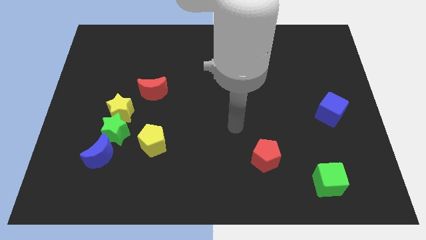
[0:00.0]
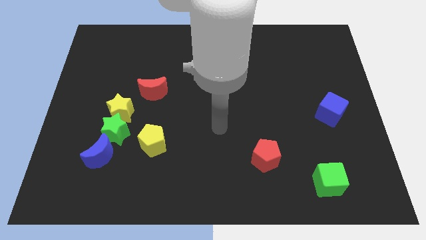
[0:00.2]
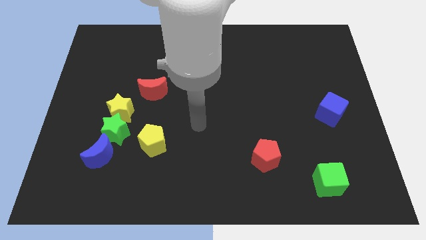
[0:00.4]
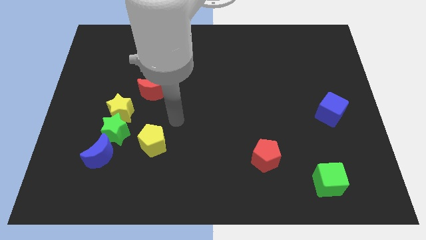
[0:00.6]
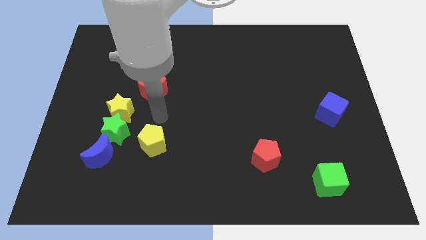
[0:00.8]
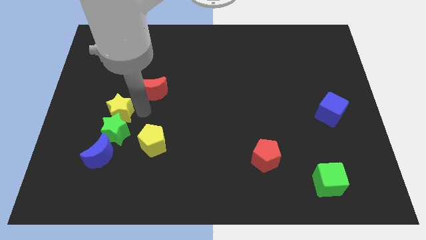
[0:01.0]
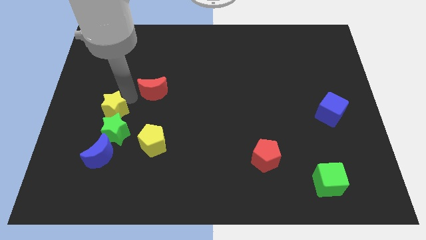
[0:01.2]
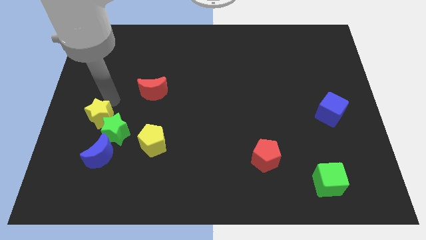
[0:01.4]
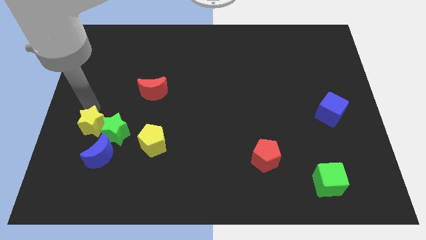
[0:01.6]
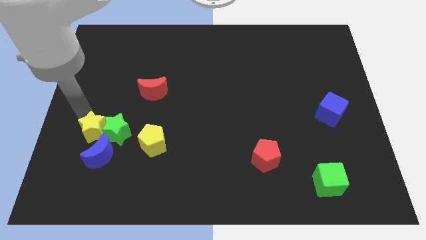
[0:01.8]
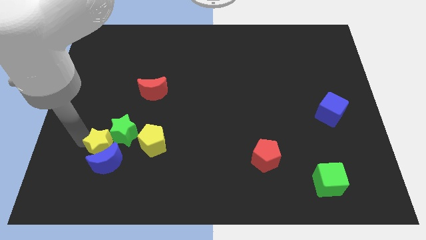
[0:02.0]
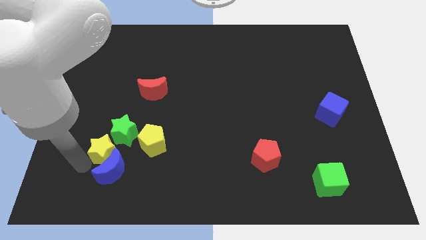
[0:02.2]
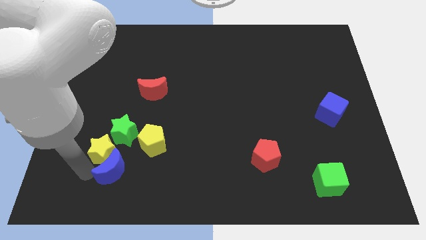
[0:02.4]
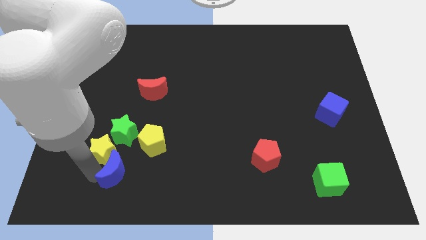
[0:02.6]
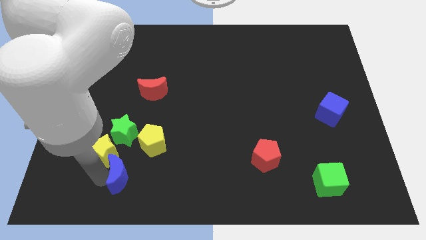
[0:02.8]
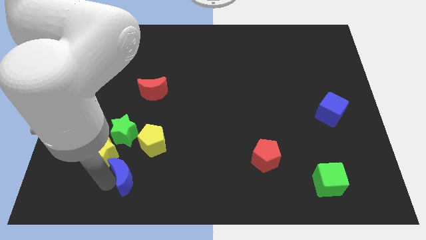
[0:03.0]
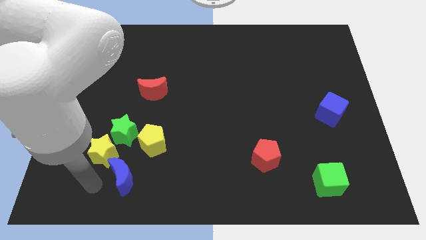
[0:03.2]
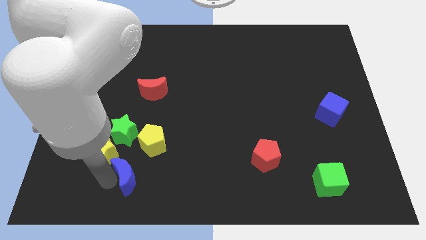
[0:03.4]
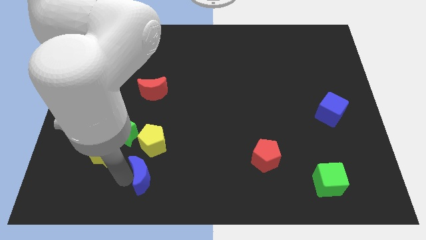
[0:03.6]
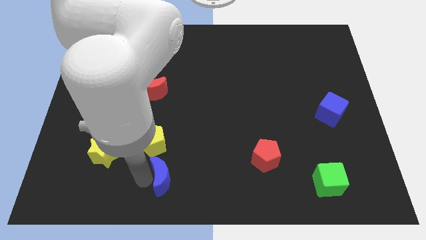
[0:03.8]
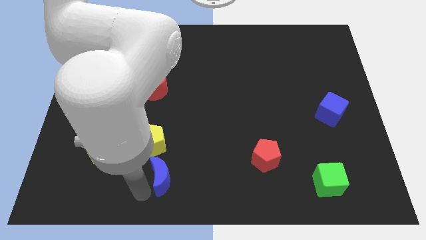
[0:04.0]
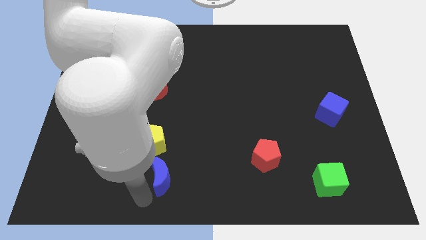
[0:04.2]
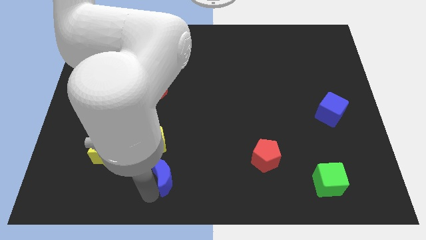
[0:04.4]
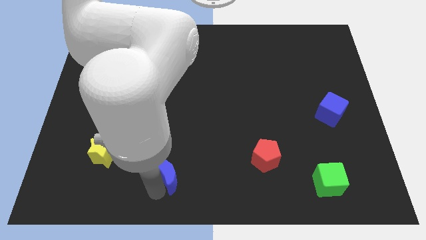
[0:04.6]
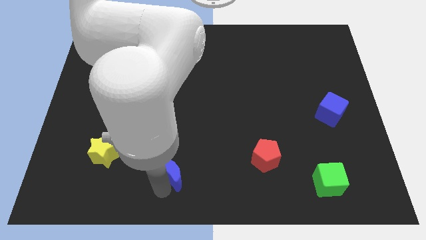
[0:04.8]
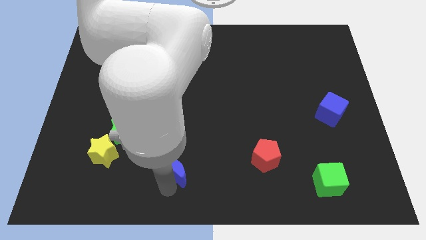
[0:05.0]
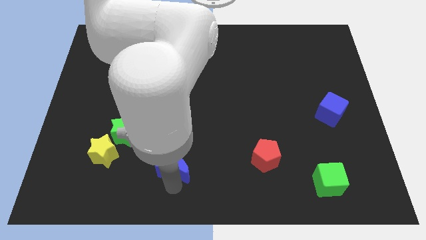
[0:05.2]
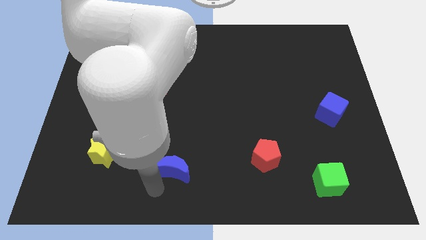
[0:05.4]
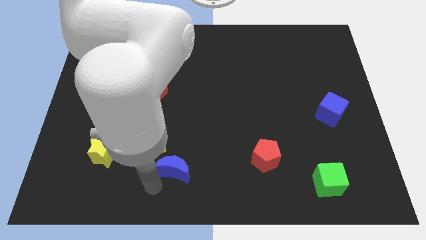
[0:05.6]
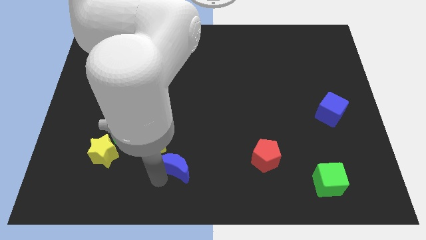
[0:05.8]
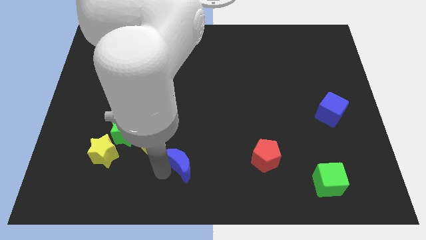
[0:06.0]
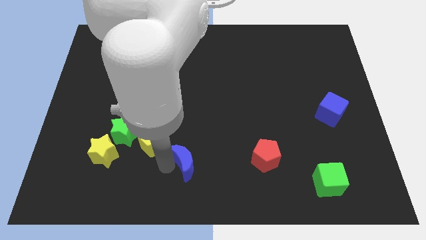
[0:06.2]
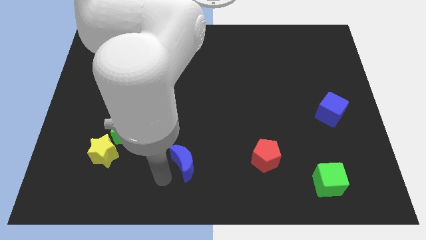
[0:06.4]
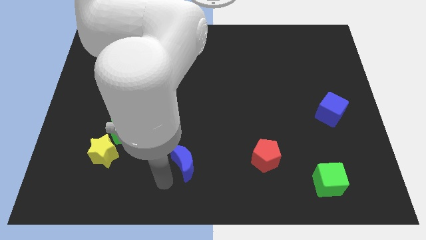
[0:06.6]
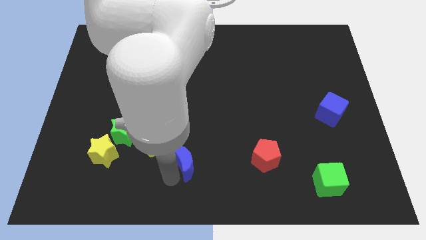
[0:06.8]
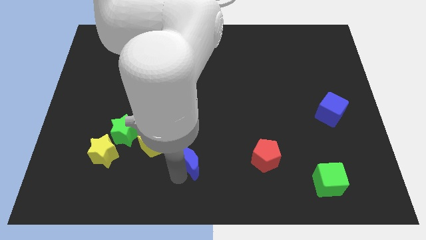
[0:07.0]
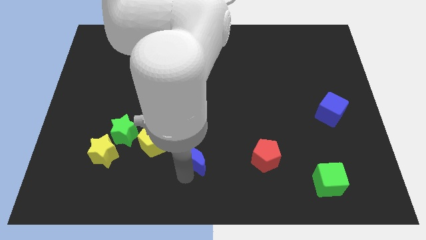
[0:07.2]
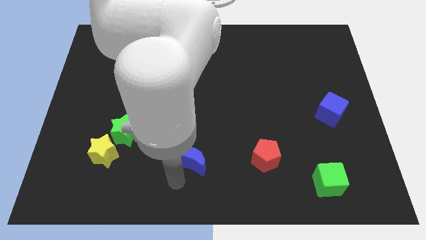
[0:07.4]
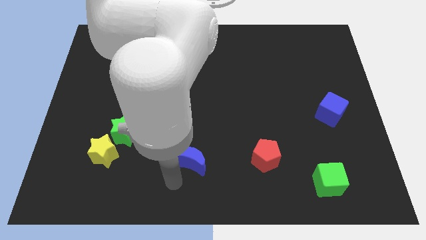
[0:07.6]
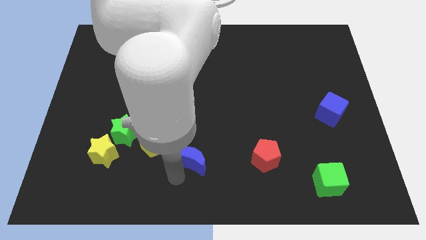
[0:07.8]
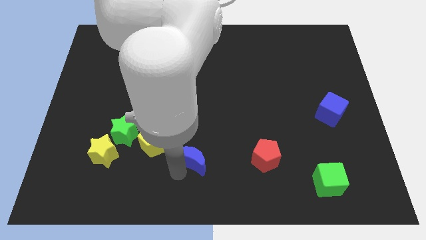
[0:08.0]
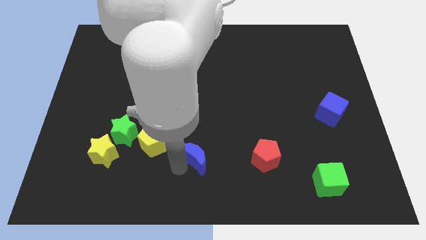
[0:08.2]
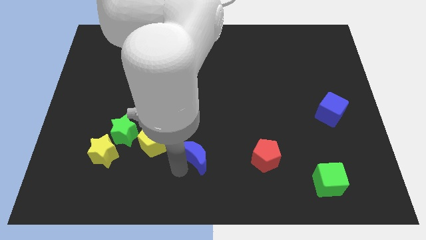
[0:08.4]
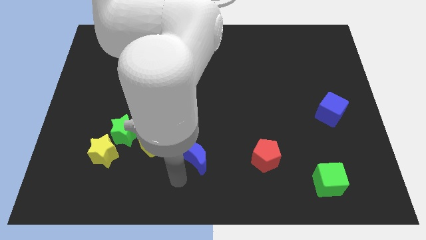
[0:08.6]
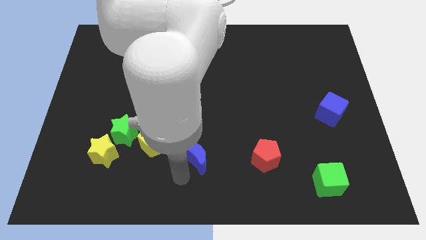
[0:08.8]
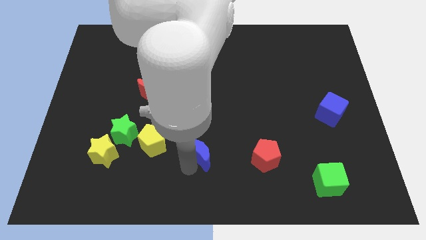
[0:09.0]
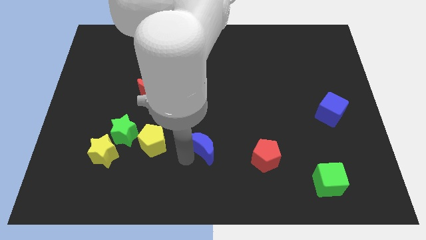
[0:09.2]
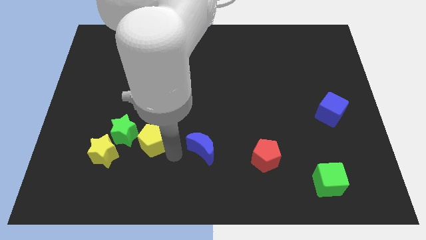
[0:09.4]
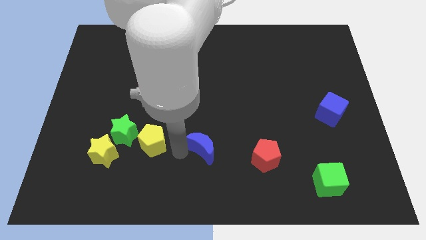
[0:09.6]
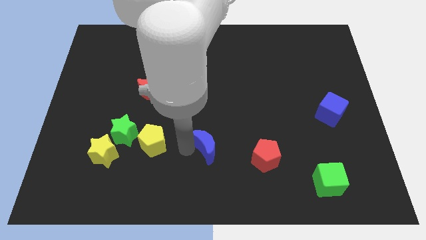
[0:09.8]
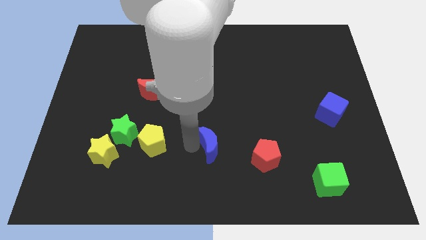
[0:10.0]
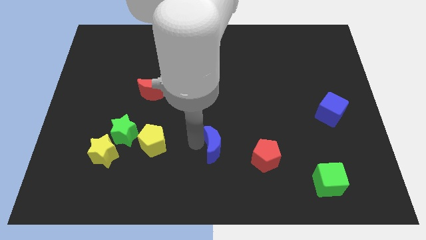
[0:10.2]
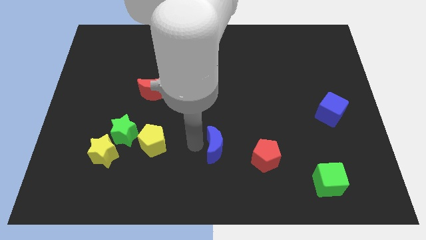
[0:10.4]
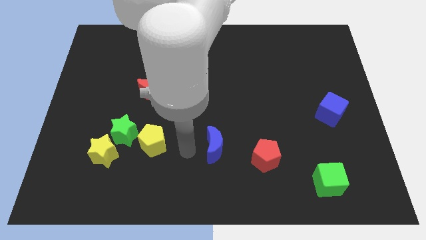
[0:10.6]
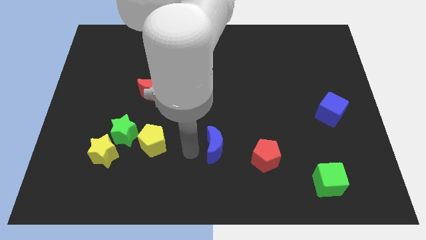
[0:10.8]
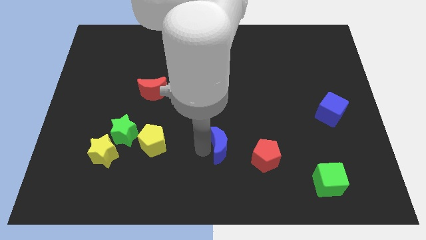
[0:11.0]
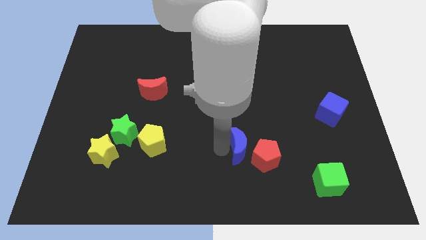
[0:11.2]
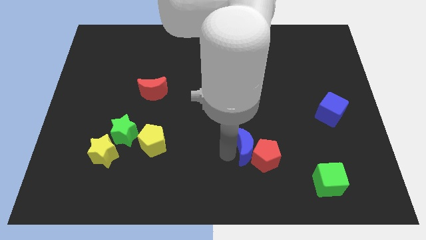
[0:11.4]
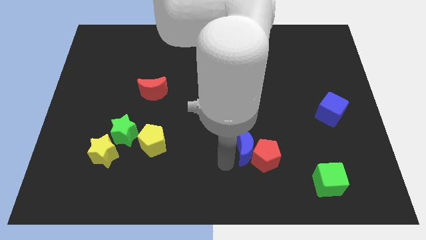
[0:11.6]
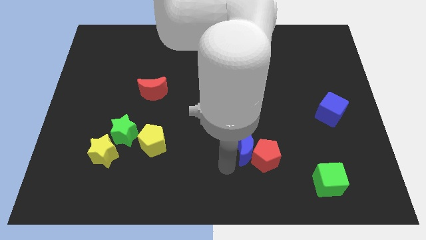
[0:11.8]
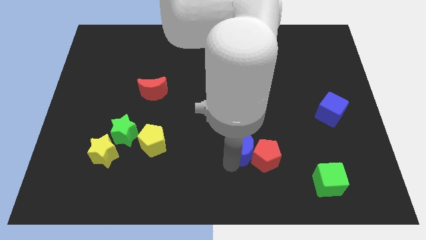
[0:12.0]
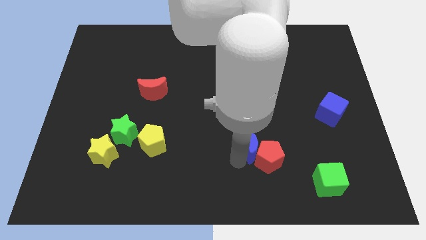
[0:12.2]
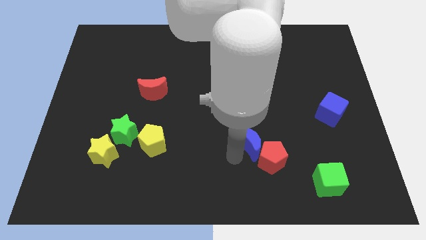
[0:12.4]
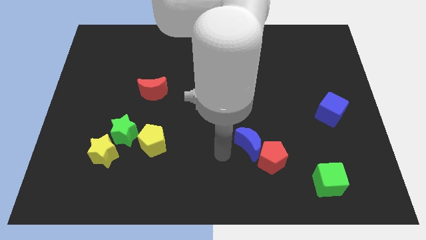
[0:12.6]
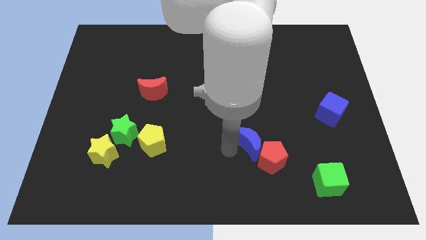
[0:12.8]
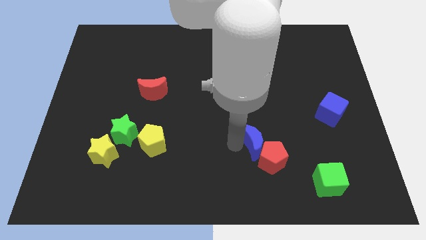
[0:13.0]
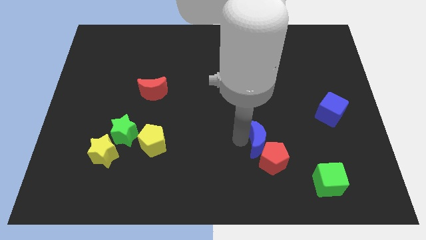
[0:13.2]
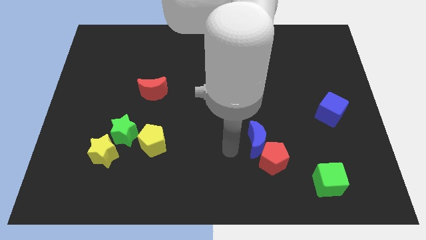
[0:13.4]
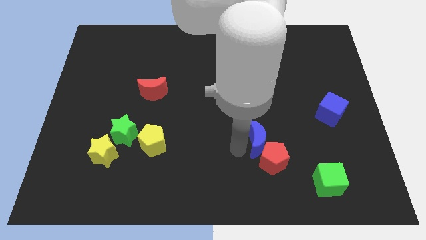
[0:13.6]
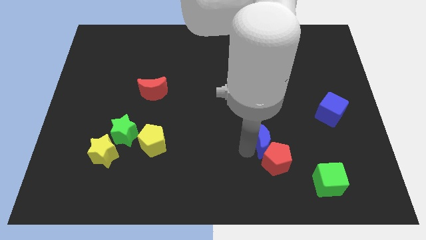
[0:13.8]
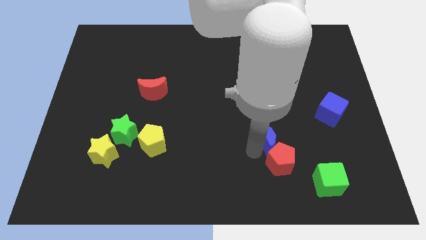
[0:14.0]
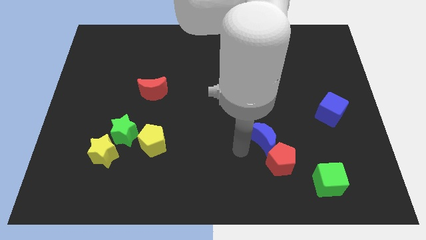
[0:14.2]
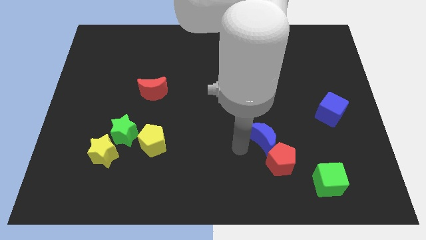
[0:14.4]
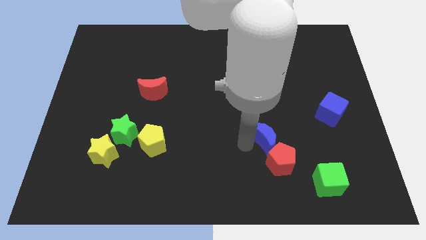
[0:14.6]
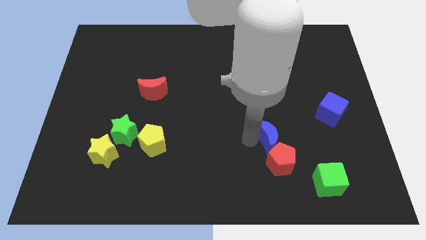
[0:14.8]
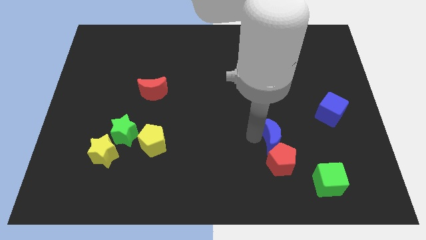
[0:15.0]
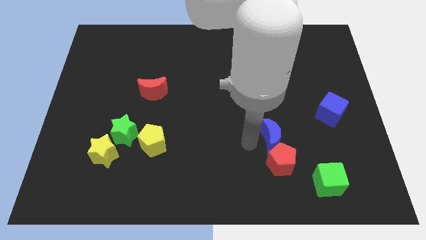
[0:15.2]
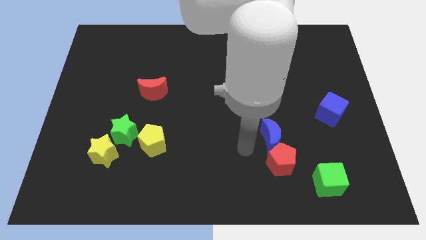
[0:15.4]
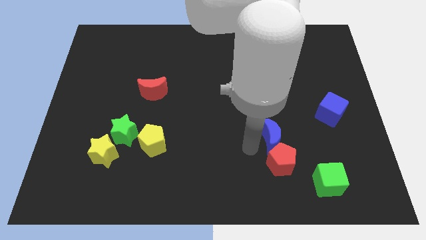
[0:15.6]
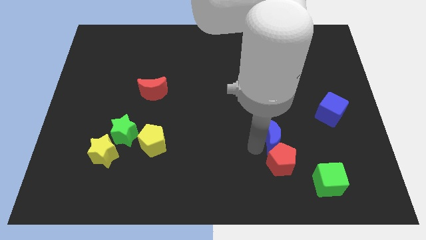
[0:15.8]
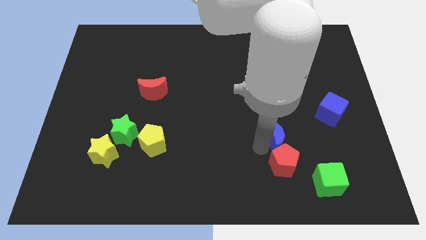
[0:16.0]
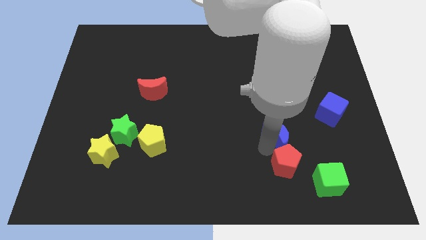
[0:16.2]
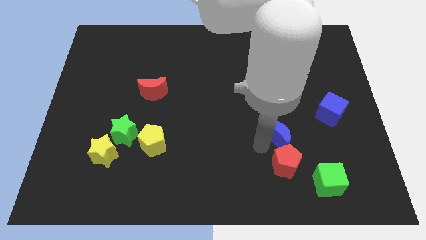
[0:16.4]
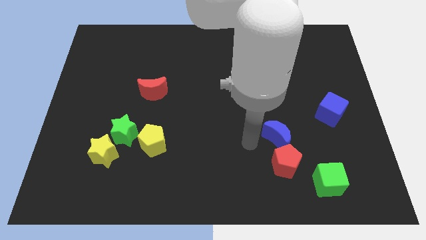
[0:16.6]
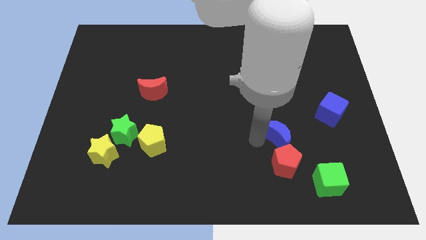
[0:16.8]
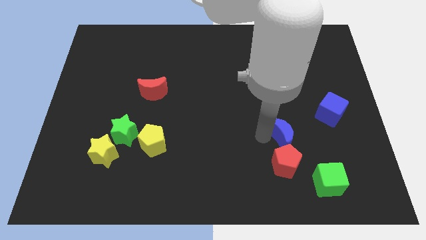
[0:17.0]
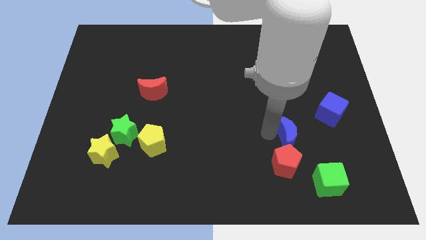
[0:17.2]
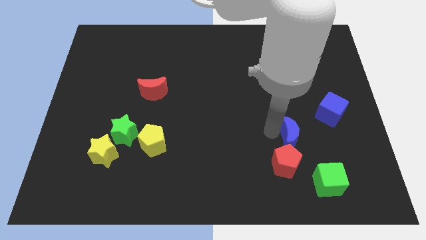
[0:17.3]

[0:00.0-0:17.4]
put the blue moon to the bottom left of the blue cube
